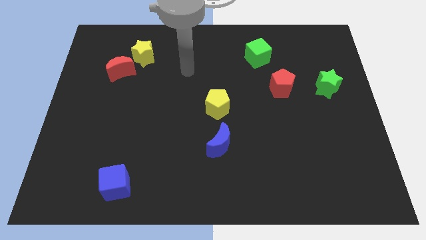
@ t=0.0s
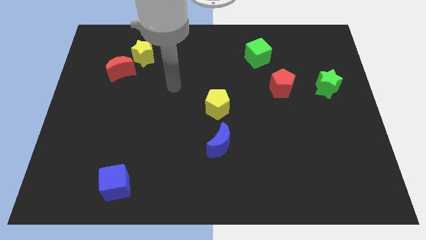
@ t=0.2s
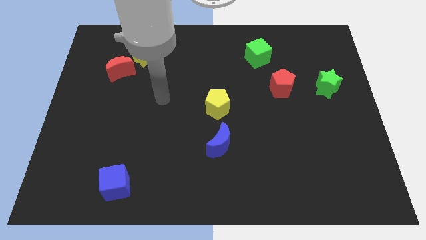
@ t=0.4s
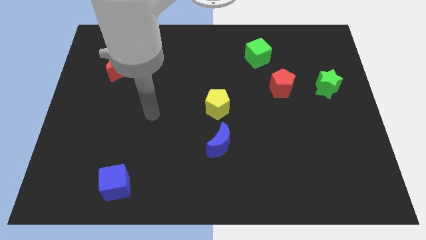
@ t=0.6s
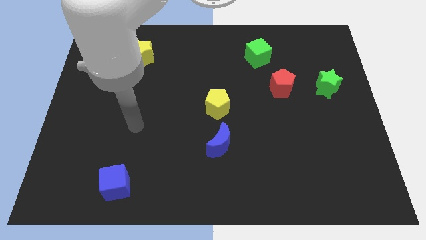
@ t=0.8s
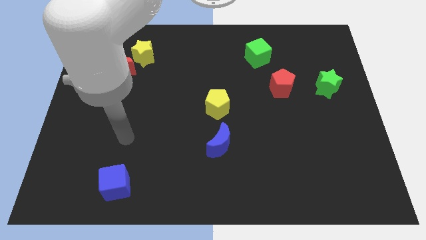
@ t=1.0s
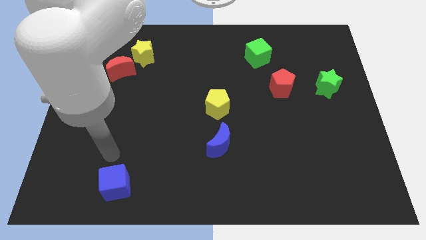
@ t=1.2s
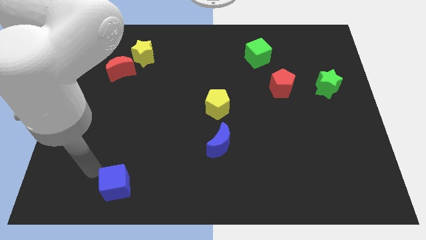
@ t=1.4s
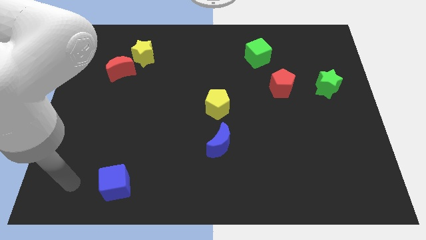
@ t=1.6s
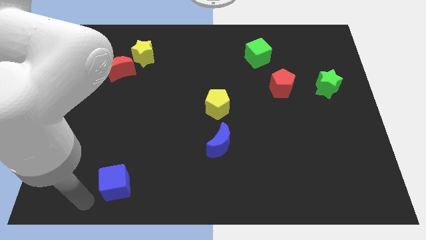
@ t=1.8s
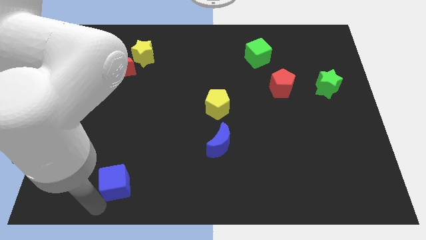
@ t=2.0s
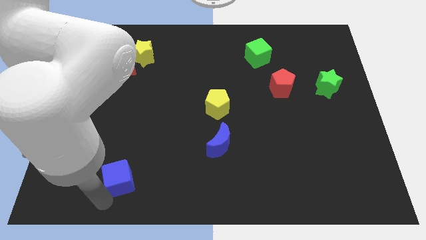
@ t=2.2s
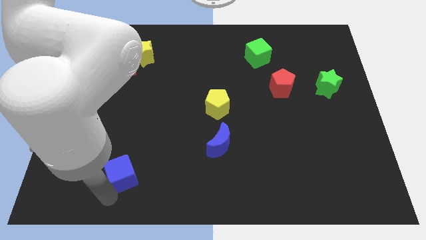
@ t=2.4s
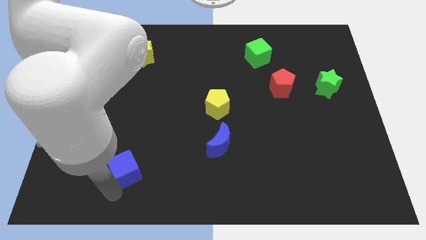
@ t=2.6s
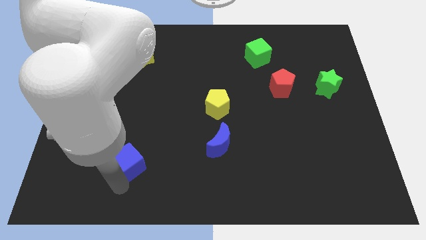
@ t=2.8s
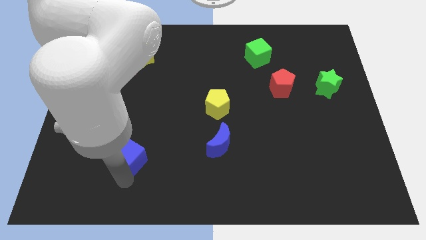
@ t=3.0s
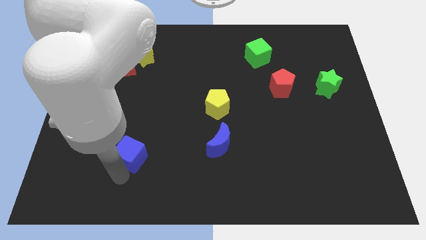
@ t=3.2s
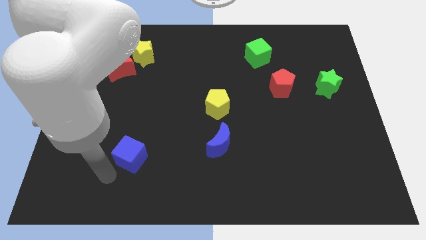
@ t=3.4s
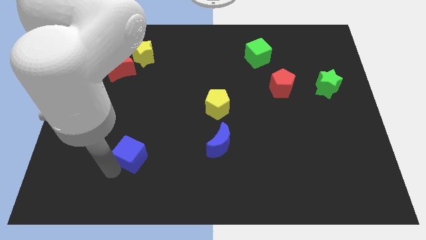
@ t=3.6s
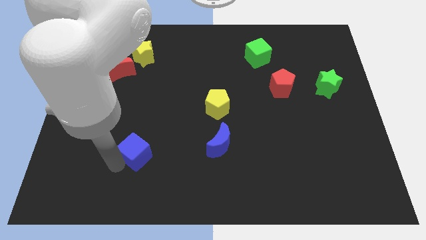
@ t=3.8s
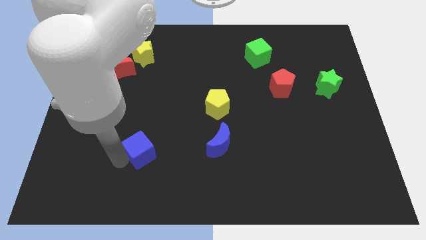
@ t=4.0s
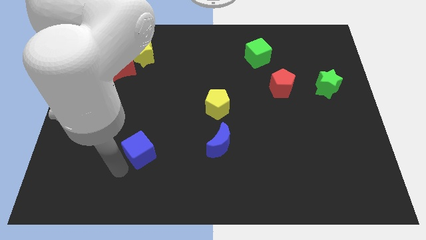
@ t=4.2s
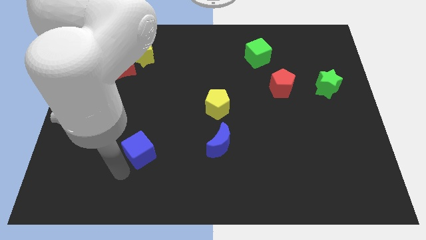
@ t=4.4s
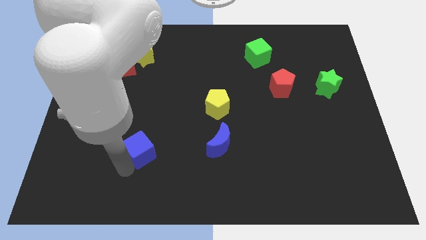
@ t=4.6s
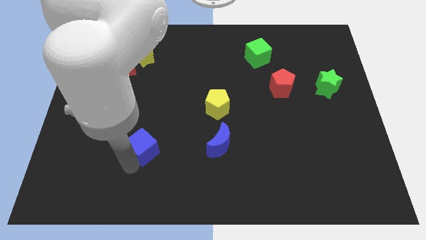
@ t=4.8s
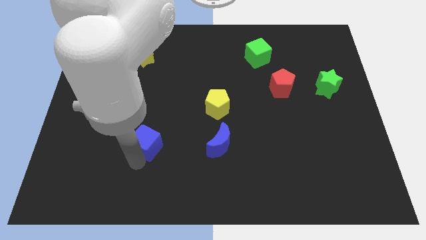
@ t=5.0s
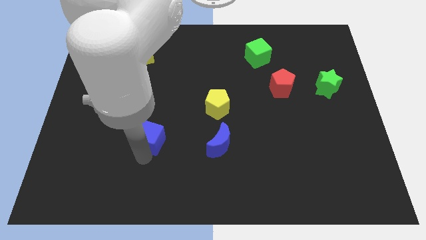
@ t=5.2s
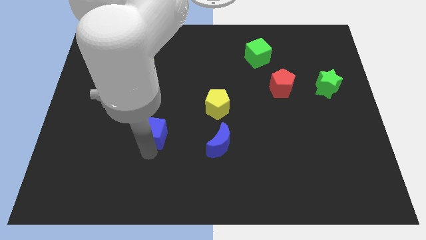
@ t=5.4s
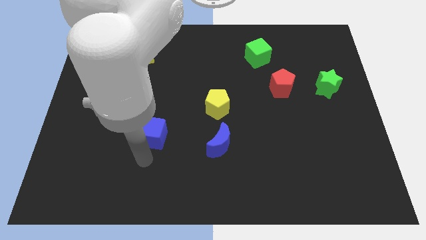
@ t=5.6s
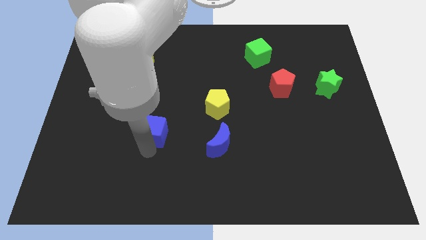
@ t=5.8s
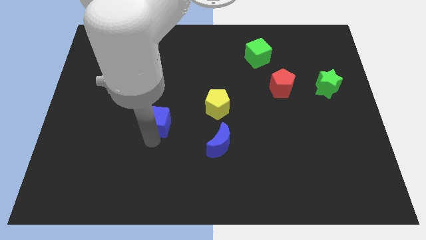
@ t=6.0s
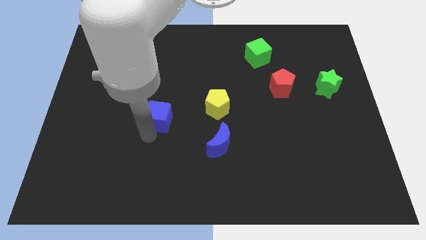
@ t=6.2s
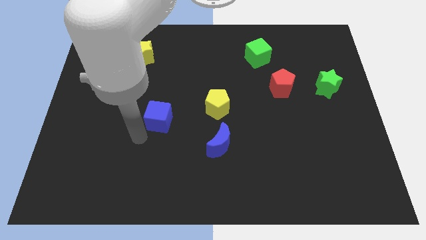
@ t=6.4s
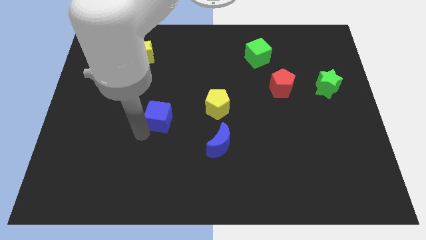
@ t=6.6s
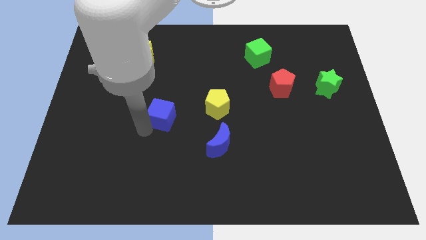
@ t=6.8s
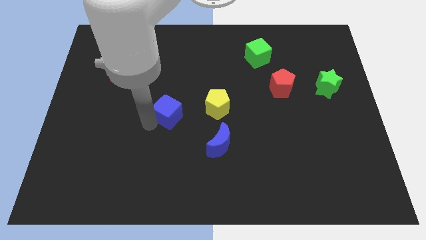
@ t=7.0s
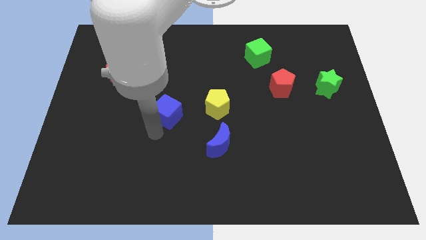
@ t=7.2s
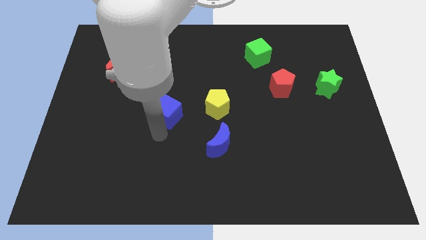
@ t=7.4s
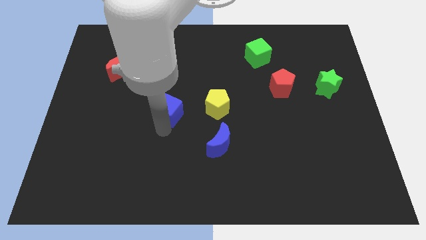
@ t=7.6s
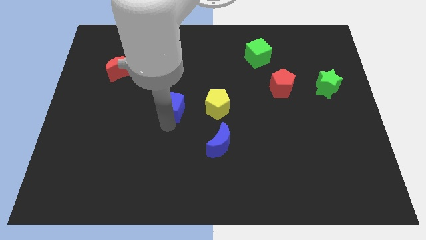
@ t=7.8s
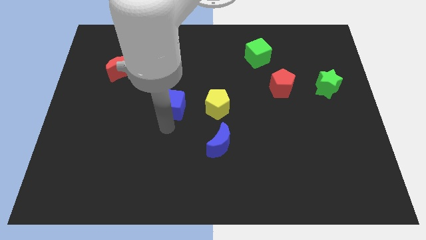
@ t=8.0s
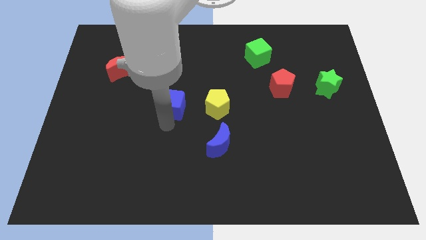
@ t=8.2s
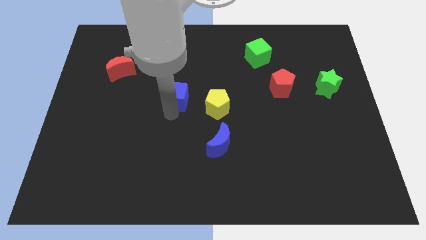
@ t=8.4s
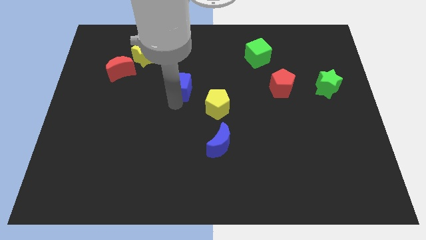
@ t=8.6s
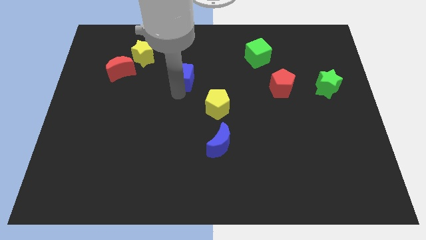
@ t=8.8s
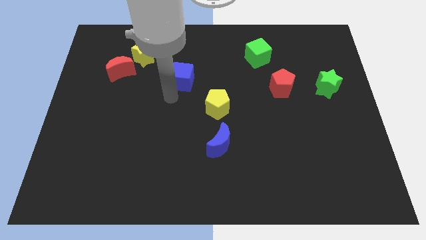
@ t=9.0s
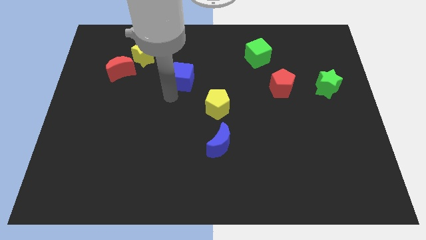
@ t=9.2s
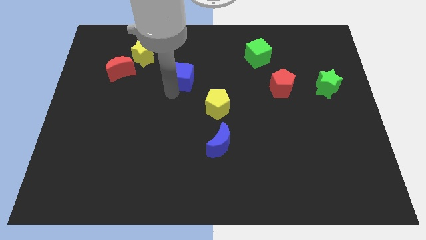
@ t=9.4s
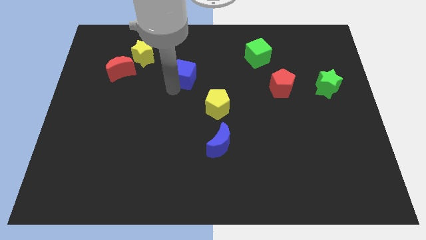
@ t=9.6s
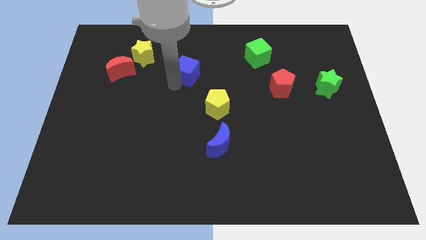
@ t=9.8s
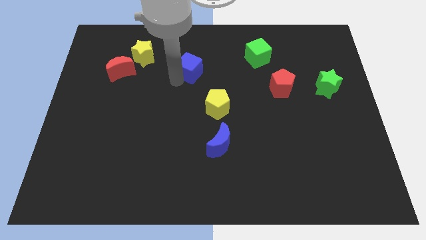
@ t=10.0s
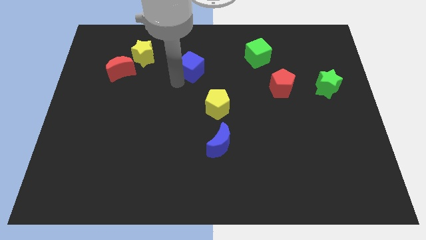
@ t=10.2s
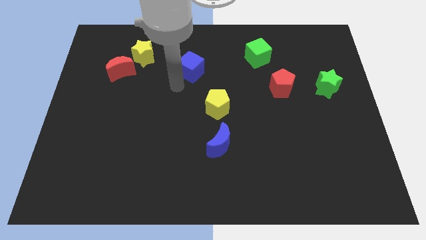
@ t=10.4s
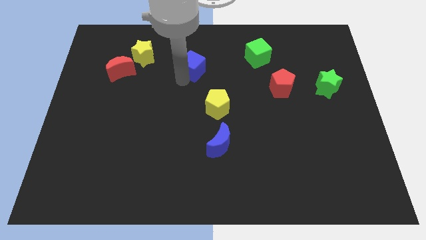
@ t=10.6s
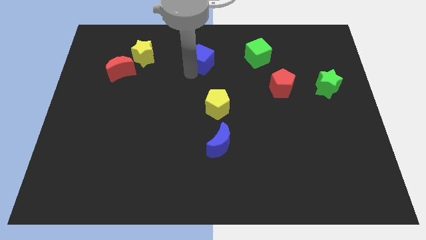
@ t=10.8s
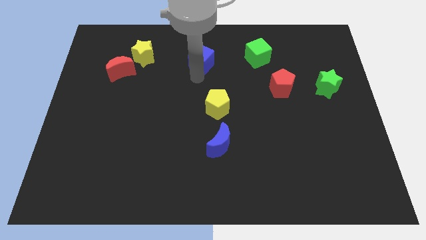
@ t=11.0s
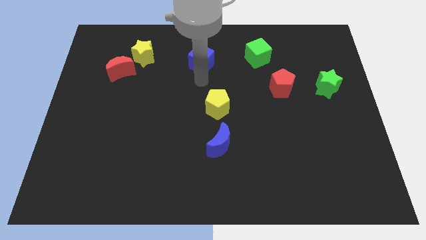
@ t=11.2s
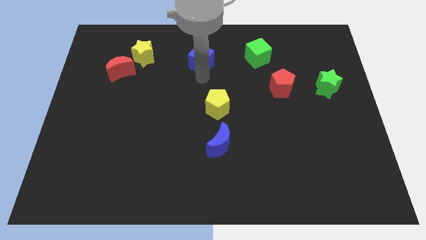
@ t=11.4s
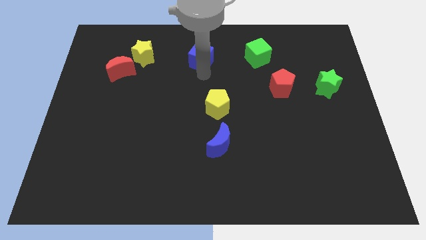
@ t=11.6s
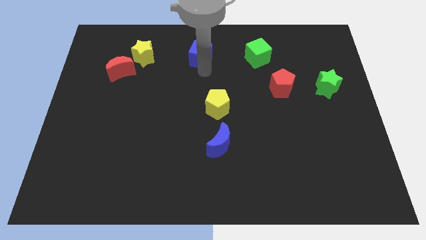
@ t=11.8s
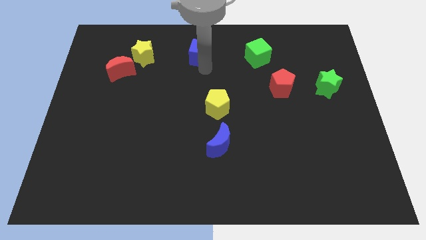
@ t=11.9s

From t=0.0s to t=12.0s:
put the blue cube to the top side

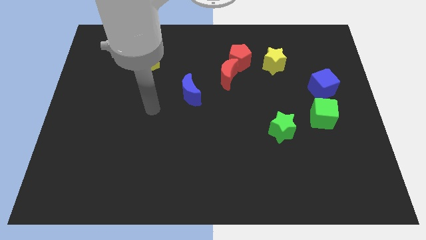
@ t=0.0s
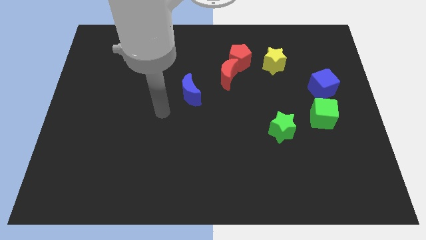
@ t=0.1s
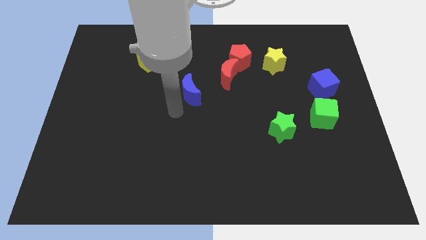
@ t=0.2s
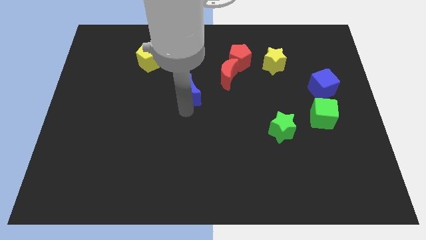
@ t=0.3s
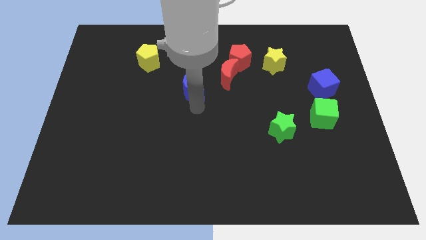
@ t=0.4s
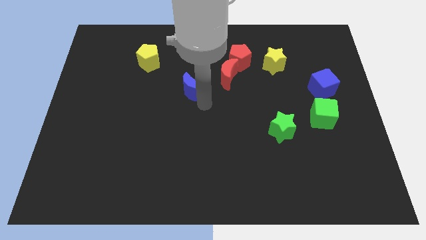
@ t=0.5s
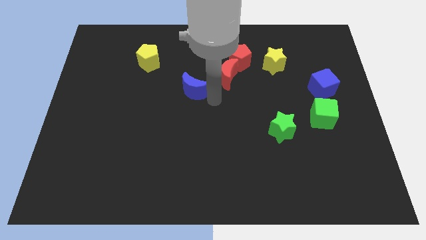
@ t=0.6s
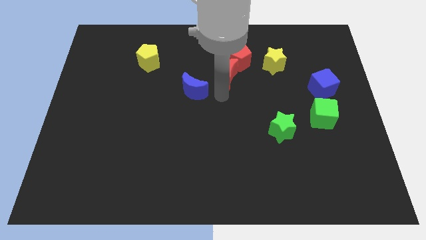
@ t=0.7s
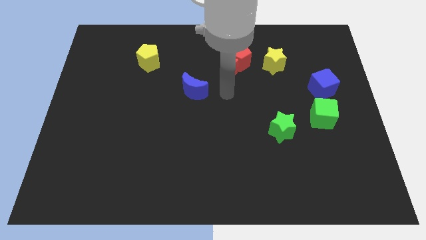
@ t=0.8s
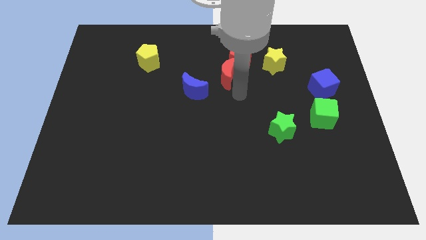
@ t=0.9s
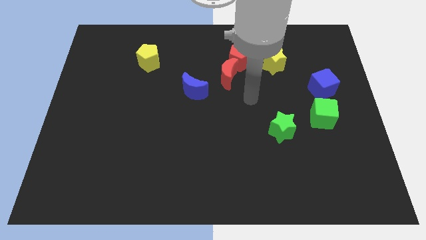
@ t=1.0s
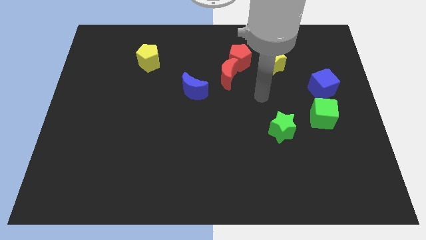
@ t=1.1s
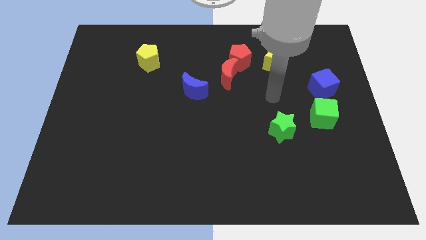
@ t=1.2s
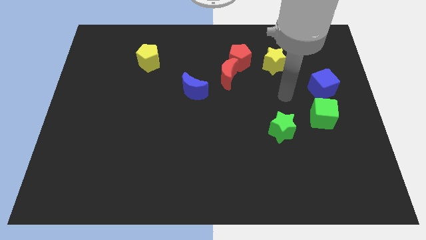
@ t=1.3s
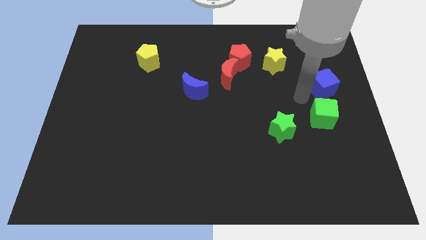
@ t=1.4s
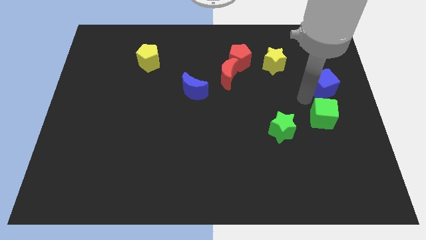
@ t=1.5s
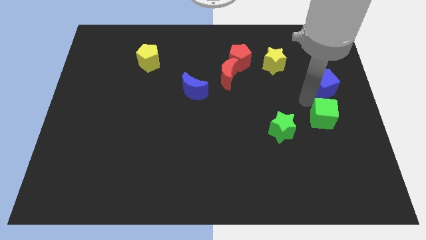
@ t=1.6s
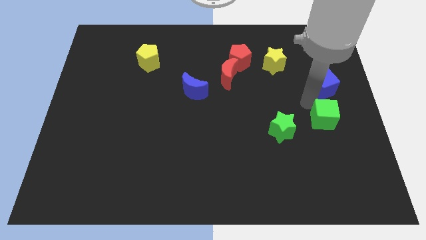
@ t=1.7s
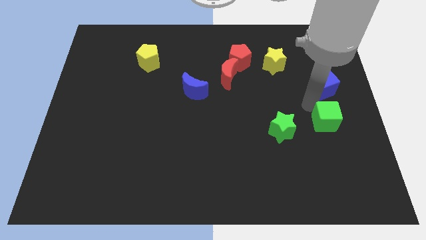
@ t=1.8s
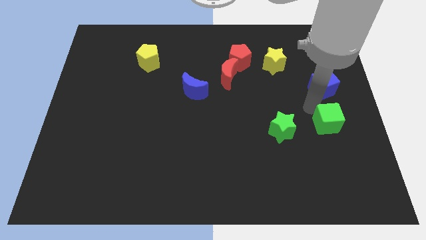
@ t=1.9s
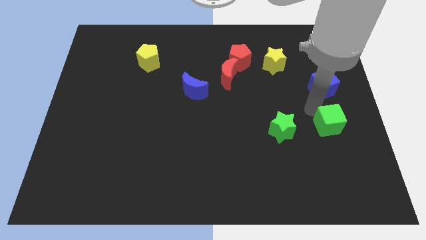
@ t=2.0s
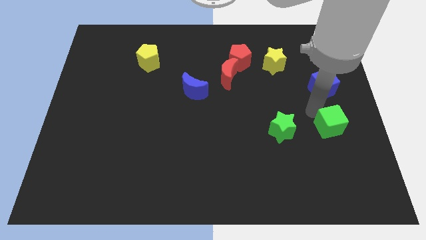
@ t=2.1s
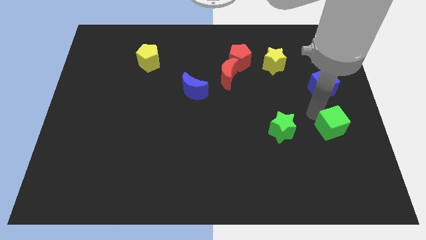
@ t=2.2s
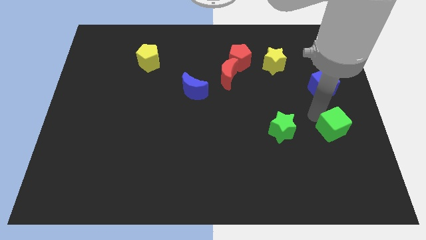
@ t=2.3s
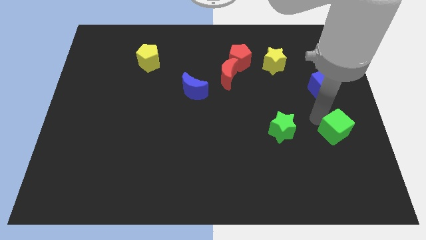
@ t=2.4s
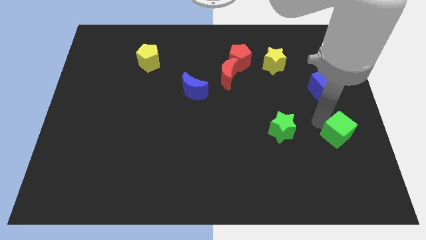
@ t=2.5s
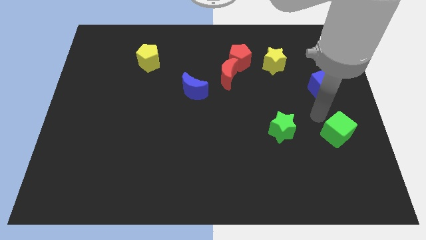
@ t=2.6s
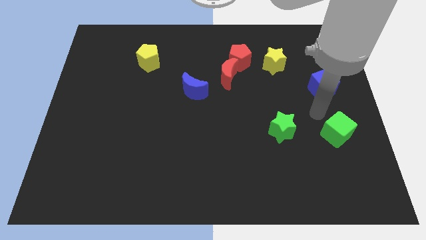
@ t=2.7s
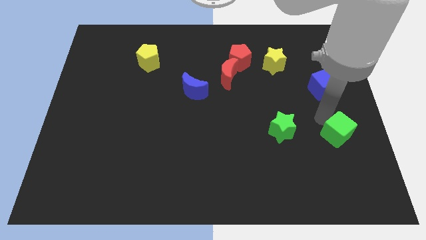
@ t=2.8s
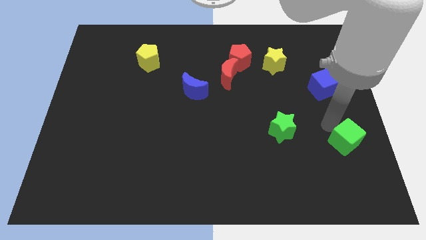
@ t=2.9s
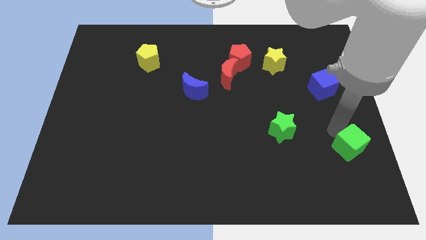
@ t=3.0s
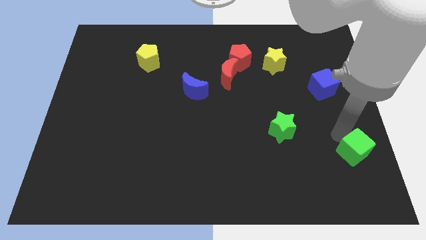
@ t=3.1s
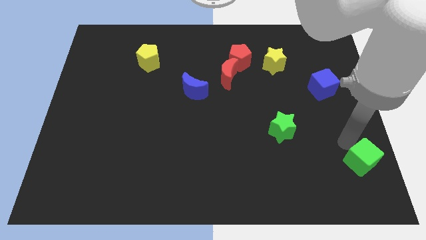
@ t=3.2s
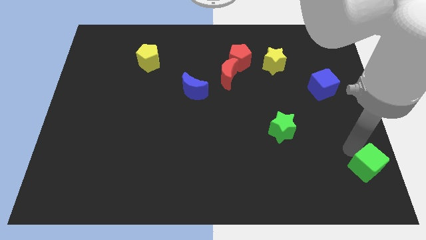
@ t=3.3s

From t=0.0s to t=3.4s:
push the green cube to the bottom right
